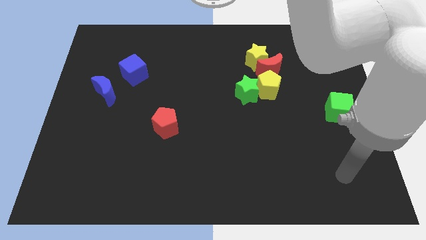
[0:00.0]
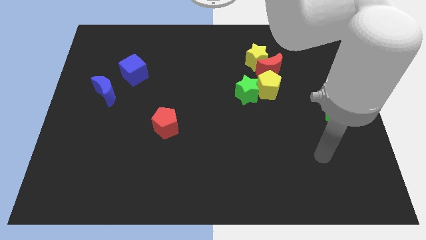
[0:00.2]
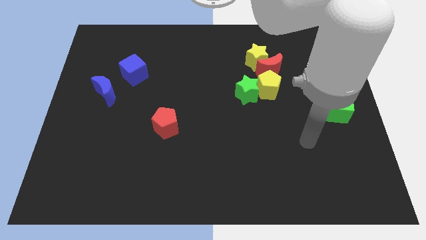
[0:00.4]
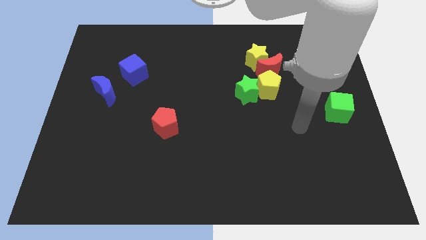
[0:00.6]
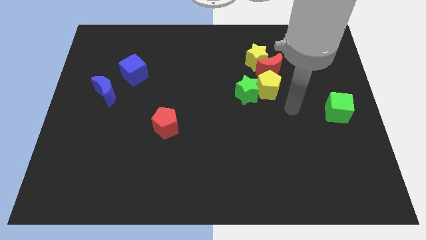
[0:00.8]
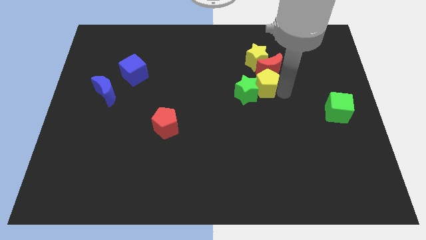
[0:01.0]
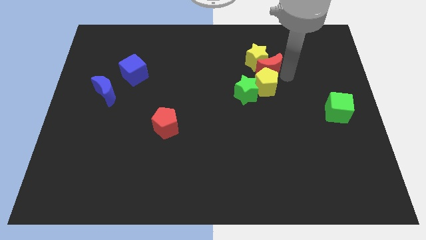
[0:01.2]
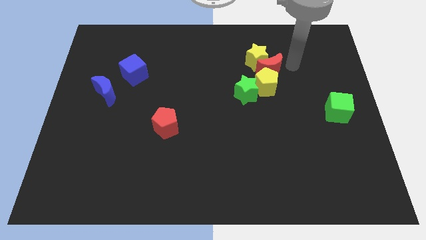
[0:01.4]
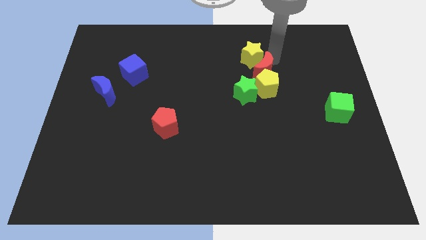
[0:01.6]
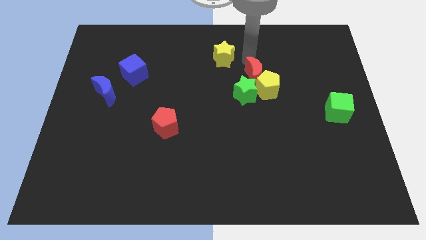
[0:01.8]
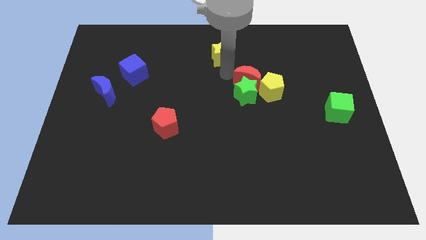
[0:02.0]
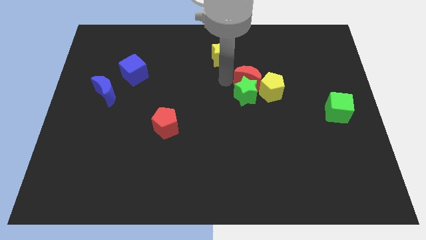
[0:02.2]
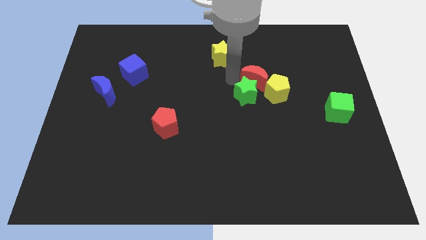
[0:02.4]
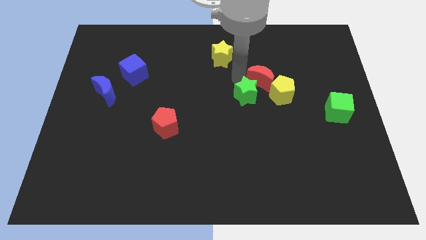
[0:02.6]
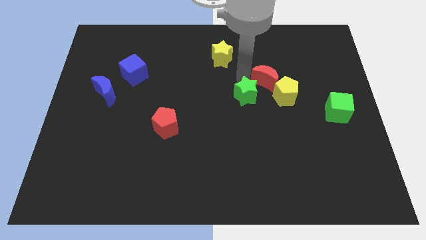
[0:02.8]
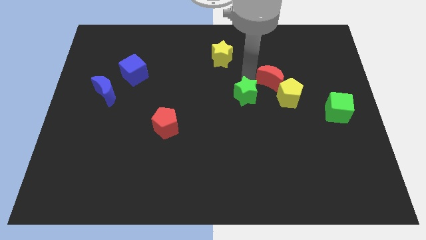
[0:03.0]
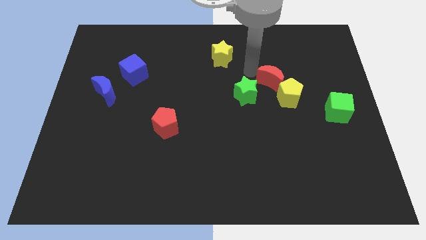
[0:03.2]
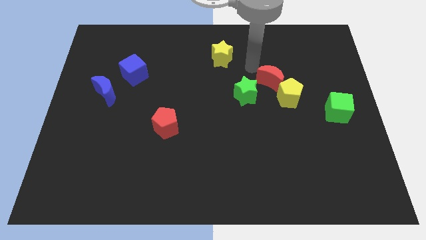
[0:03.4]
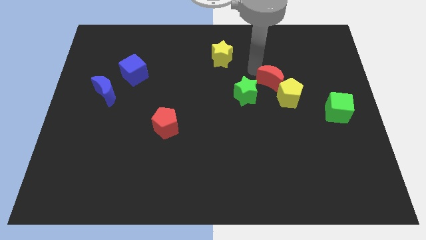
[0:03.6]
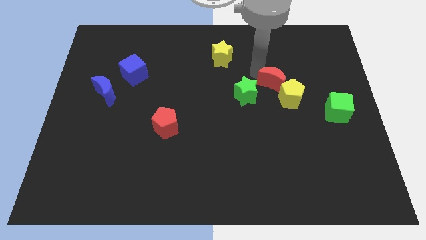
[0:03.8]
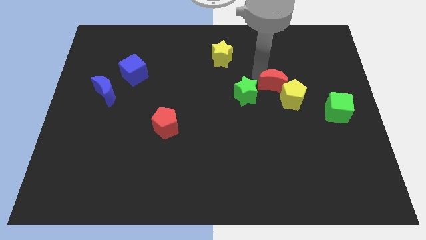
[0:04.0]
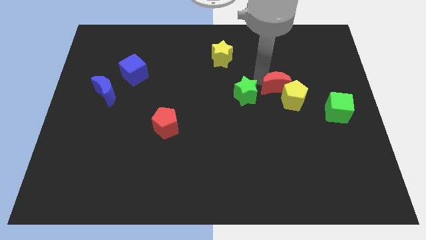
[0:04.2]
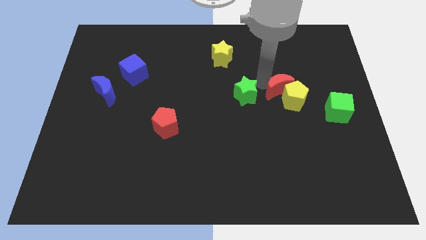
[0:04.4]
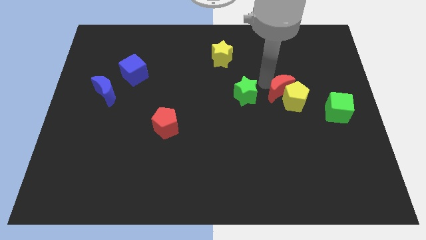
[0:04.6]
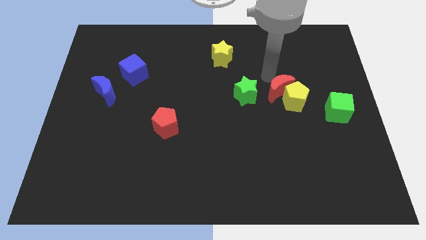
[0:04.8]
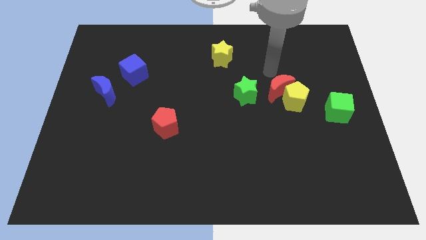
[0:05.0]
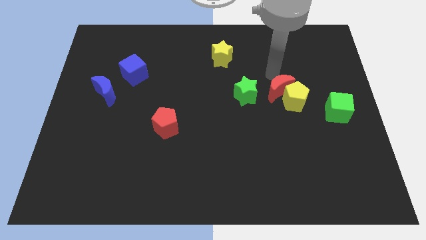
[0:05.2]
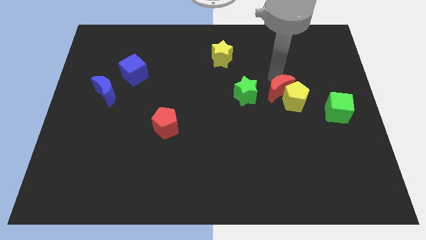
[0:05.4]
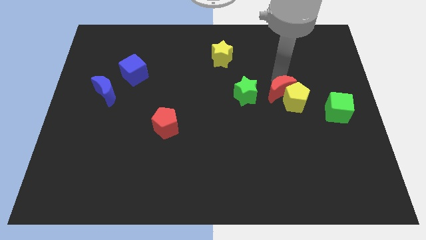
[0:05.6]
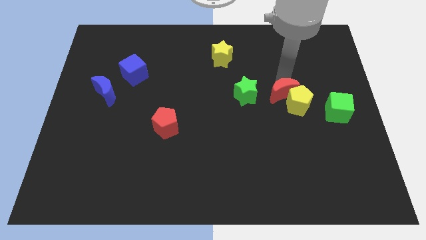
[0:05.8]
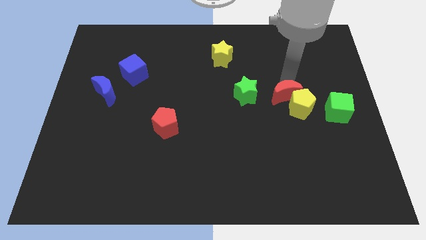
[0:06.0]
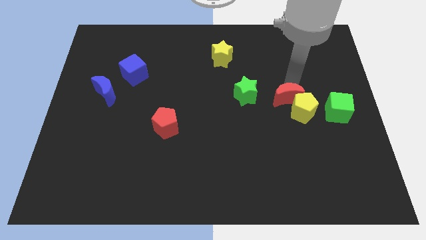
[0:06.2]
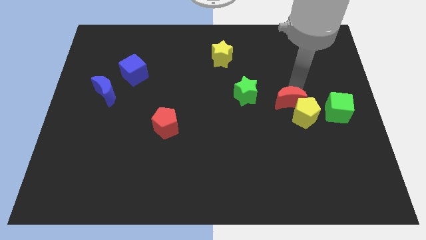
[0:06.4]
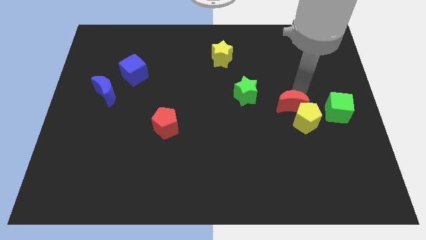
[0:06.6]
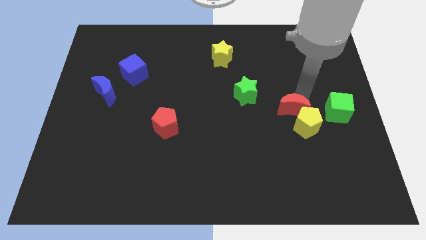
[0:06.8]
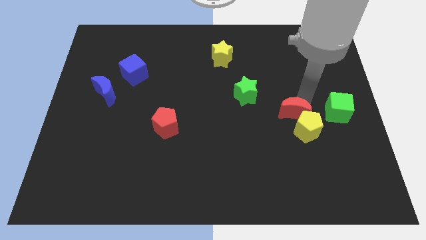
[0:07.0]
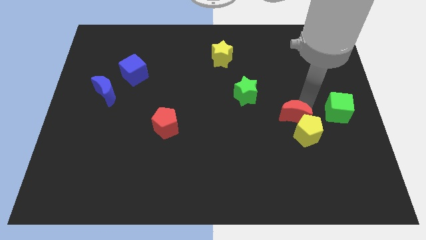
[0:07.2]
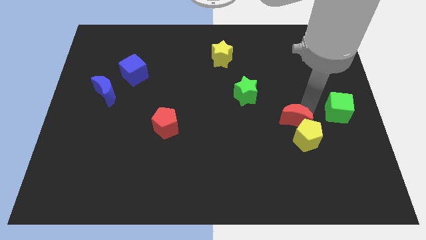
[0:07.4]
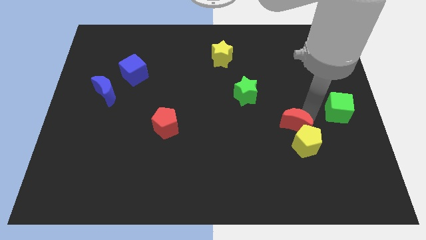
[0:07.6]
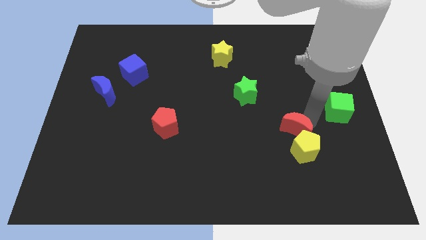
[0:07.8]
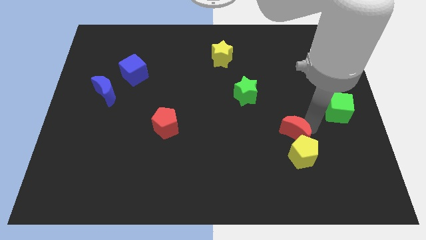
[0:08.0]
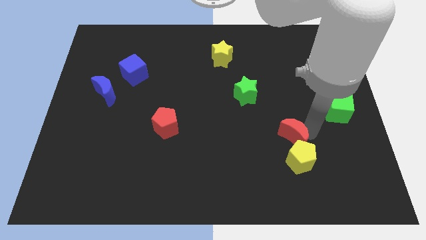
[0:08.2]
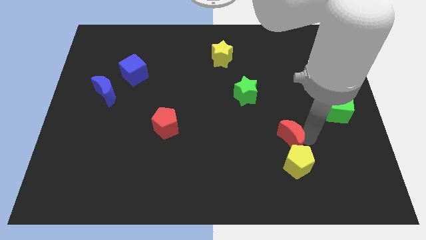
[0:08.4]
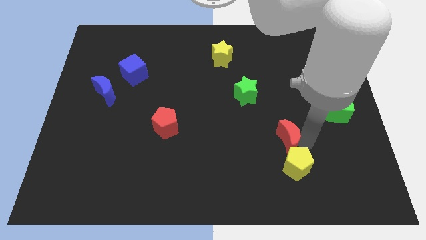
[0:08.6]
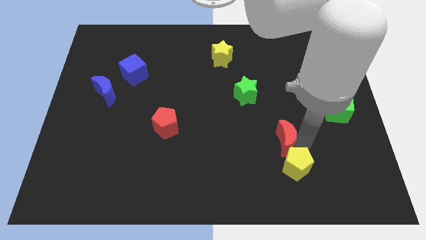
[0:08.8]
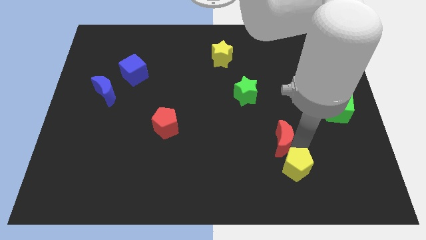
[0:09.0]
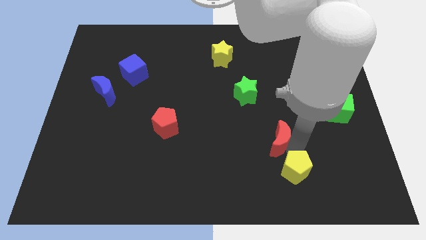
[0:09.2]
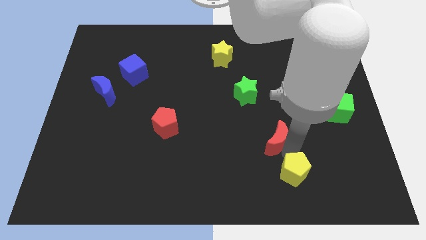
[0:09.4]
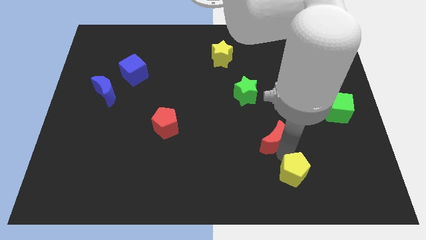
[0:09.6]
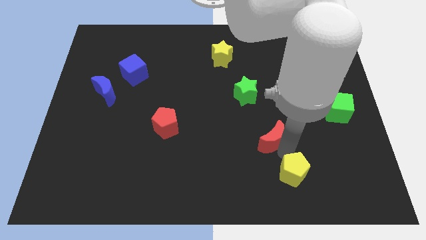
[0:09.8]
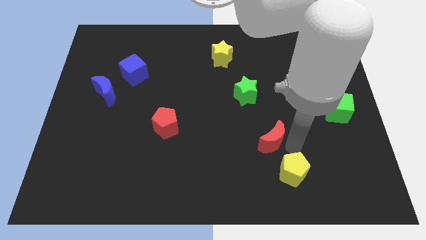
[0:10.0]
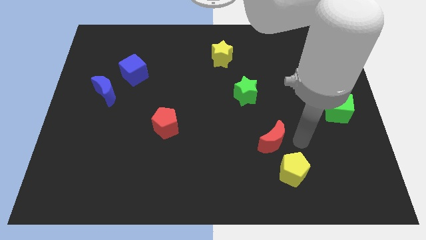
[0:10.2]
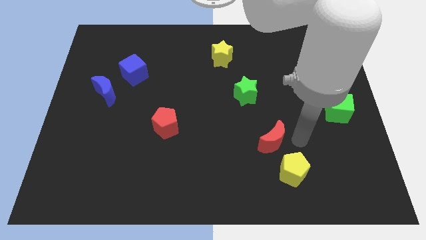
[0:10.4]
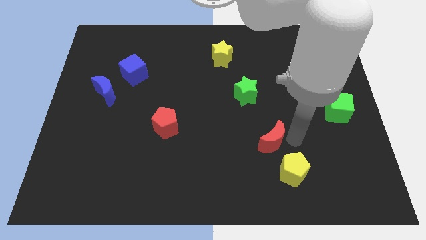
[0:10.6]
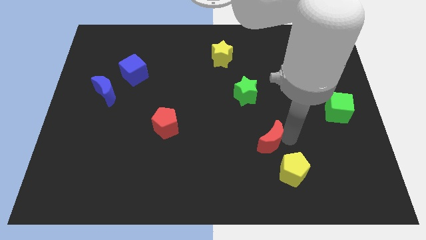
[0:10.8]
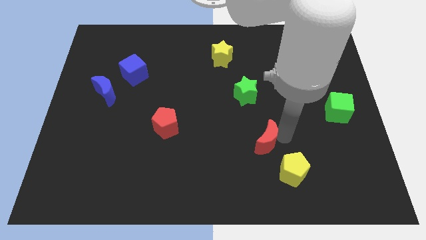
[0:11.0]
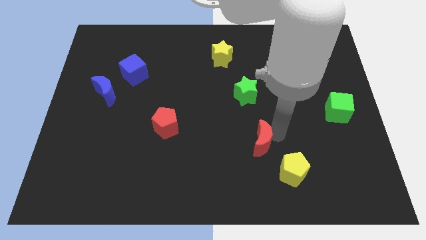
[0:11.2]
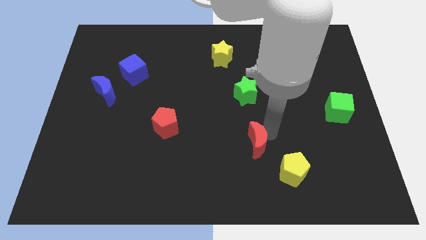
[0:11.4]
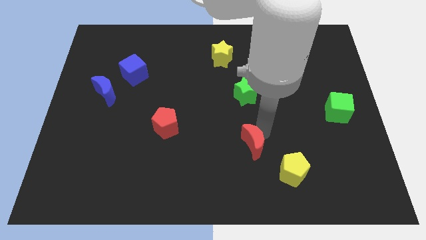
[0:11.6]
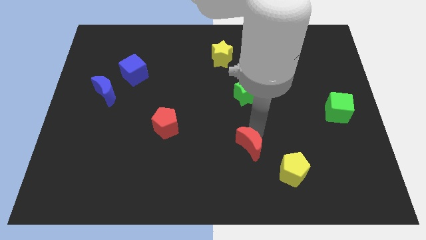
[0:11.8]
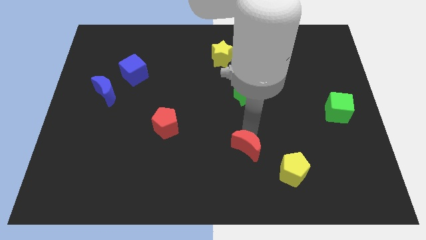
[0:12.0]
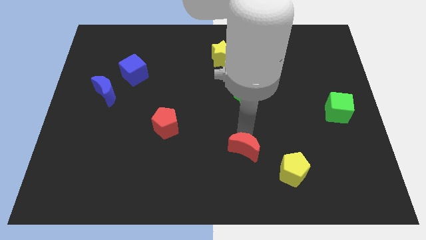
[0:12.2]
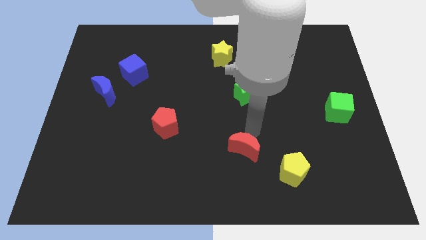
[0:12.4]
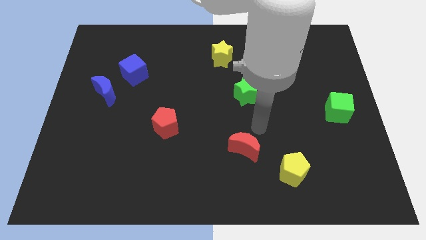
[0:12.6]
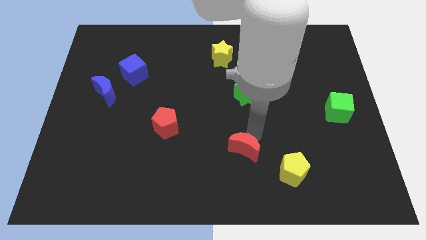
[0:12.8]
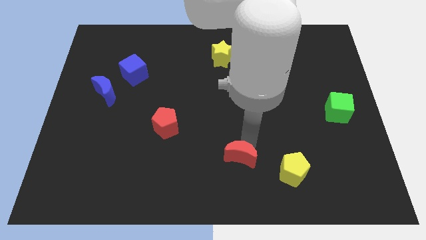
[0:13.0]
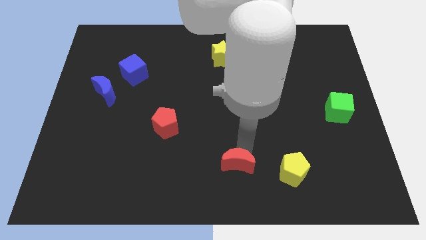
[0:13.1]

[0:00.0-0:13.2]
put the red moon to the bottom
